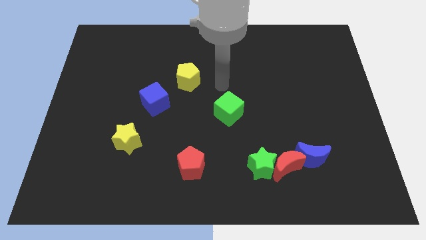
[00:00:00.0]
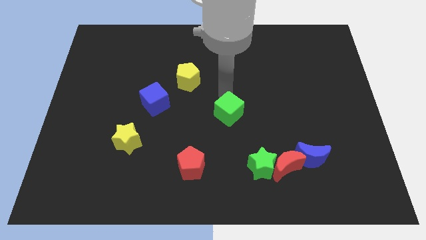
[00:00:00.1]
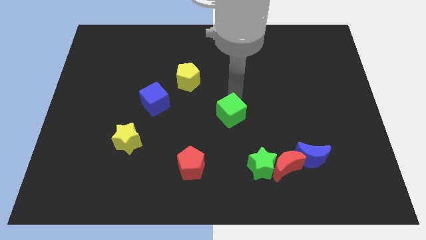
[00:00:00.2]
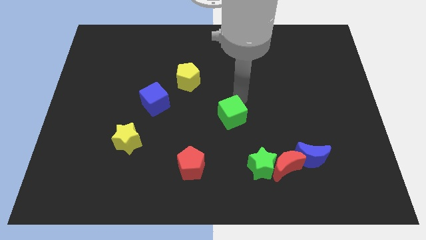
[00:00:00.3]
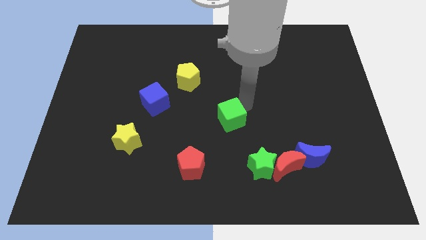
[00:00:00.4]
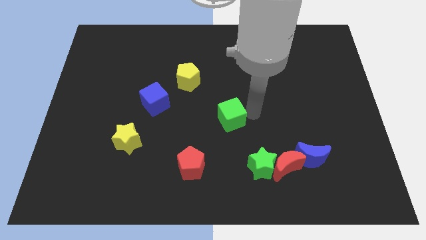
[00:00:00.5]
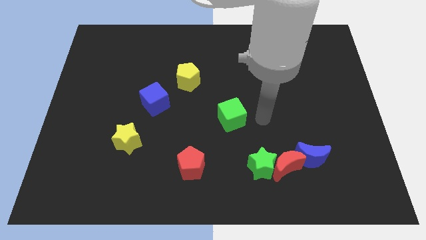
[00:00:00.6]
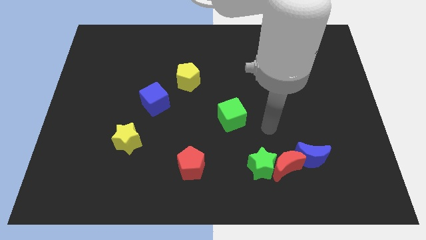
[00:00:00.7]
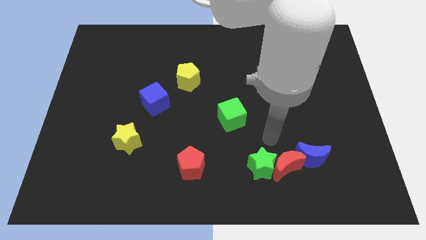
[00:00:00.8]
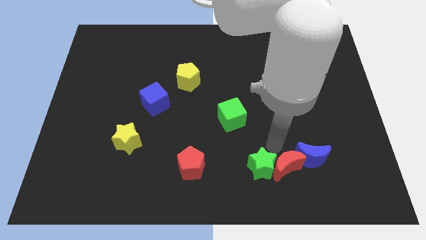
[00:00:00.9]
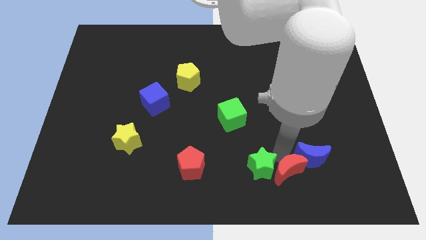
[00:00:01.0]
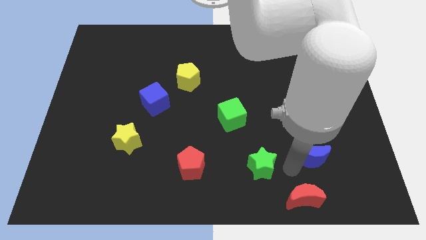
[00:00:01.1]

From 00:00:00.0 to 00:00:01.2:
move the green star away from the red moon

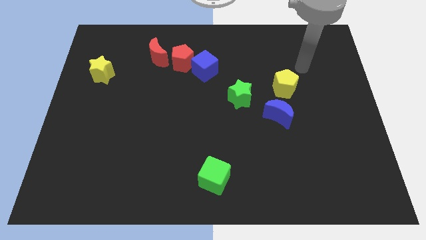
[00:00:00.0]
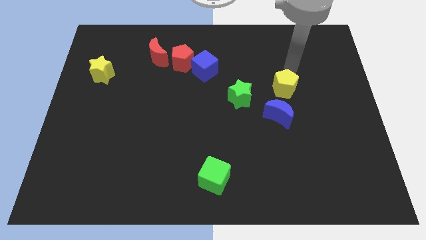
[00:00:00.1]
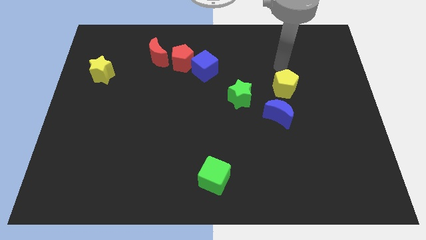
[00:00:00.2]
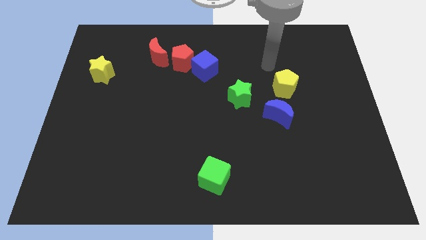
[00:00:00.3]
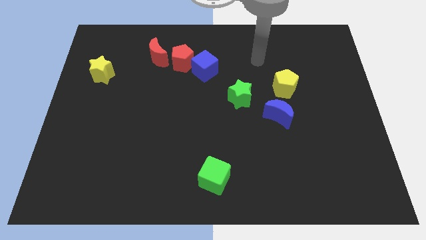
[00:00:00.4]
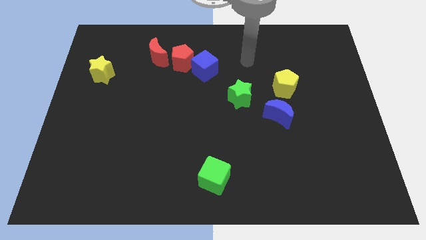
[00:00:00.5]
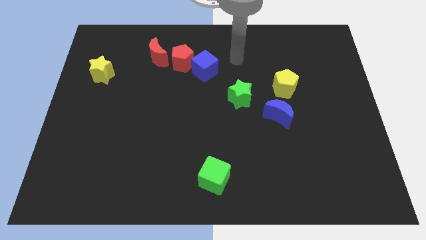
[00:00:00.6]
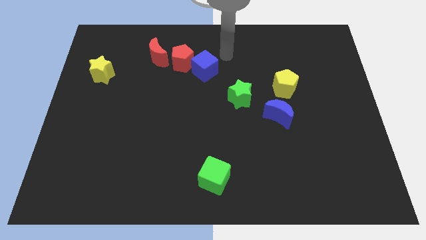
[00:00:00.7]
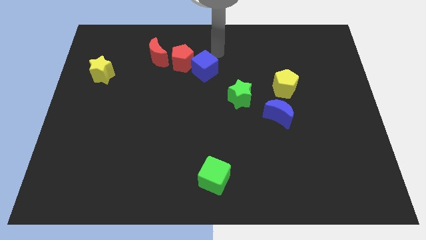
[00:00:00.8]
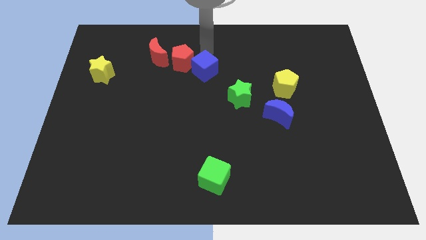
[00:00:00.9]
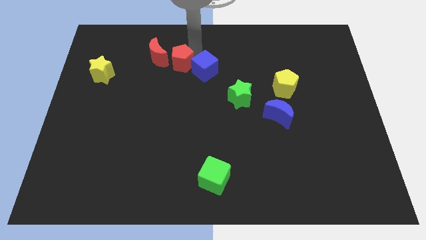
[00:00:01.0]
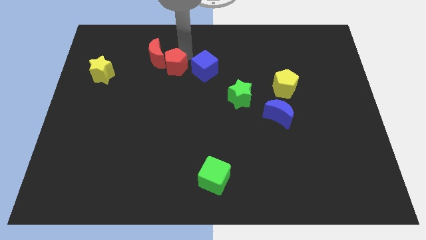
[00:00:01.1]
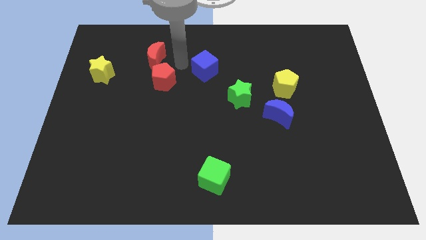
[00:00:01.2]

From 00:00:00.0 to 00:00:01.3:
separate the blue cube from the red pentagon

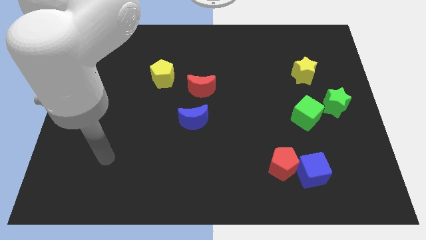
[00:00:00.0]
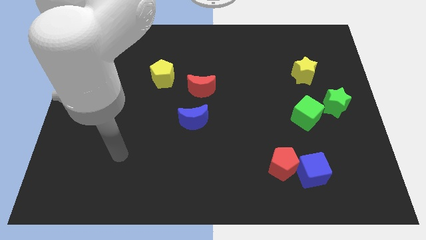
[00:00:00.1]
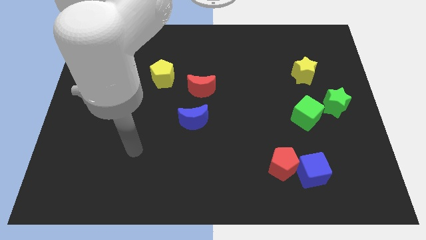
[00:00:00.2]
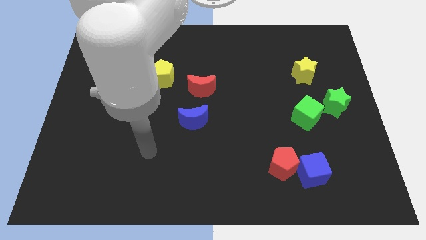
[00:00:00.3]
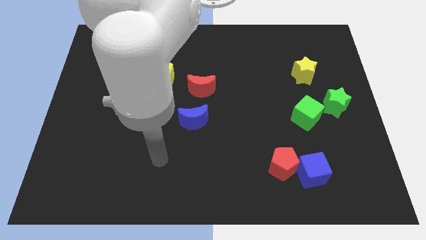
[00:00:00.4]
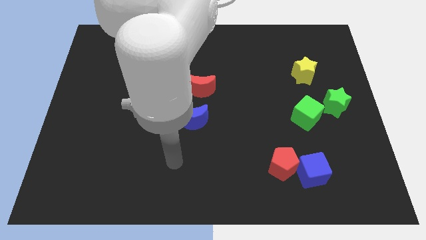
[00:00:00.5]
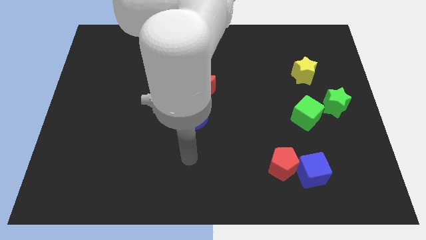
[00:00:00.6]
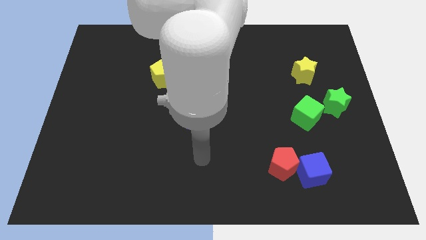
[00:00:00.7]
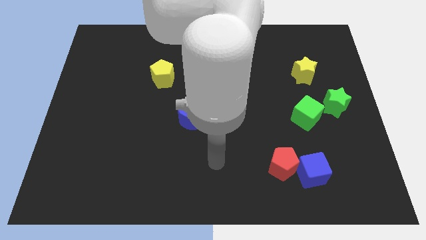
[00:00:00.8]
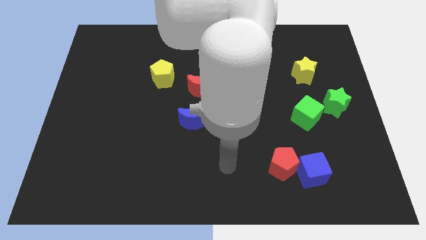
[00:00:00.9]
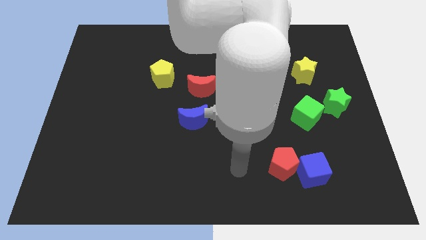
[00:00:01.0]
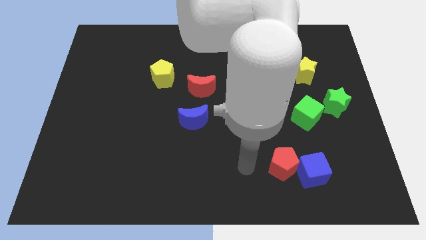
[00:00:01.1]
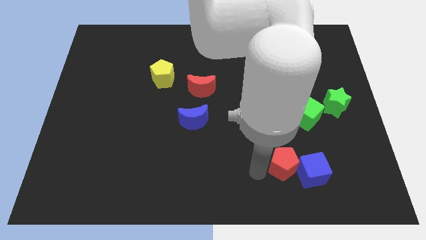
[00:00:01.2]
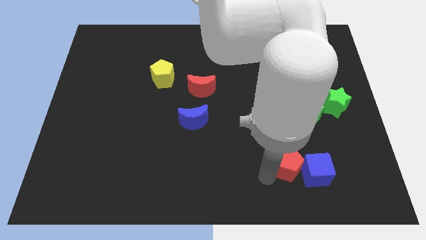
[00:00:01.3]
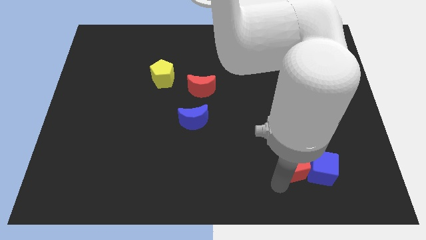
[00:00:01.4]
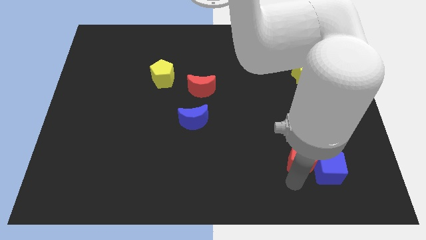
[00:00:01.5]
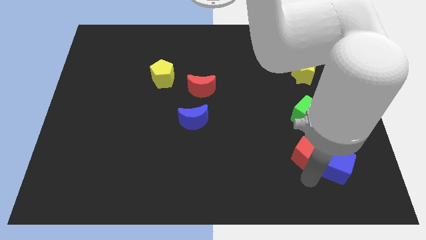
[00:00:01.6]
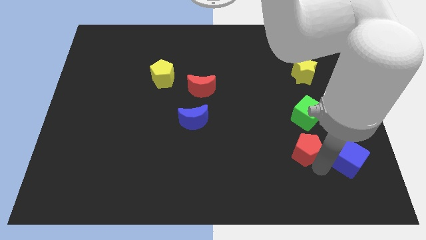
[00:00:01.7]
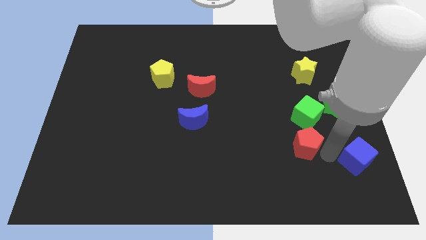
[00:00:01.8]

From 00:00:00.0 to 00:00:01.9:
move the red pentagon away from the blue cube

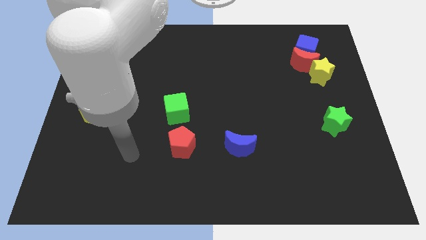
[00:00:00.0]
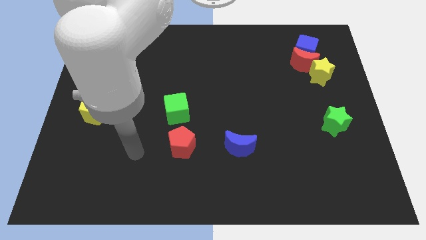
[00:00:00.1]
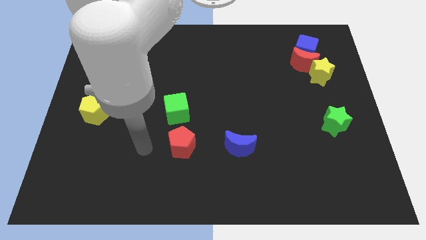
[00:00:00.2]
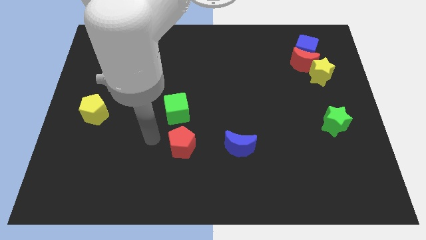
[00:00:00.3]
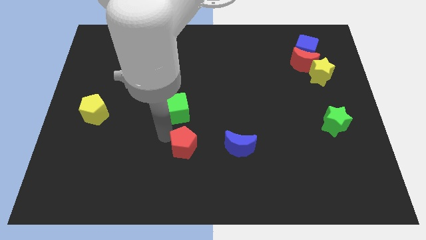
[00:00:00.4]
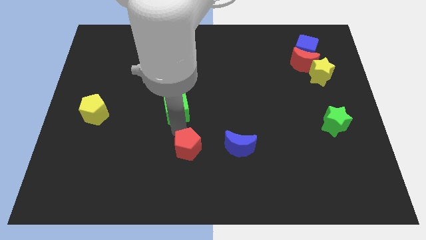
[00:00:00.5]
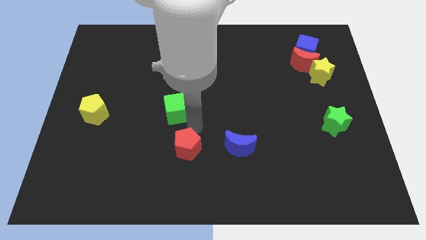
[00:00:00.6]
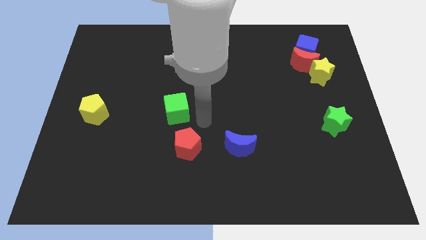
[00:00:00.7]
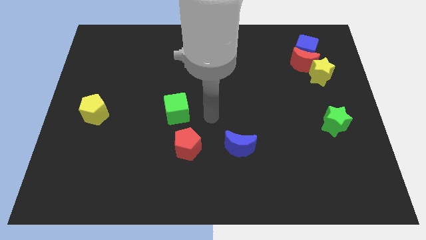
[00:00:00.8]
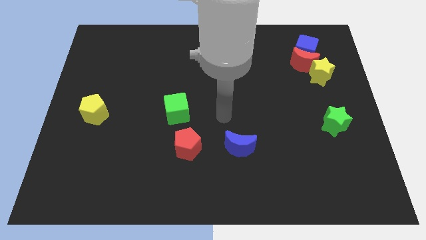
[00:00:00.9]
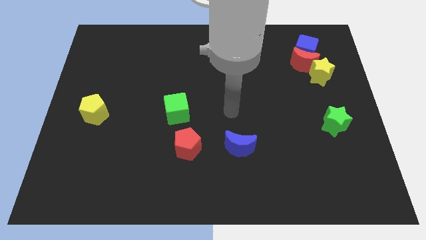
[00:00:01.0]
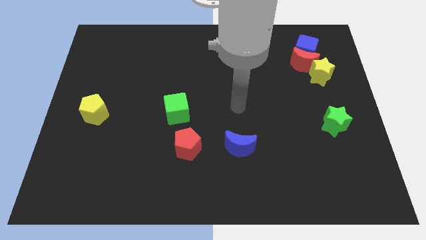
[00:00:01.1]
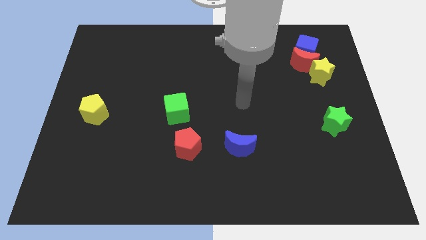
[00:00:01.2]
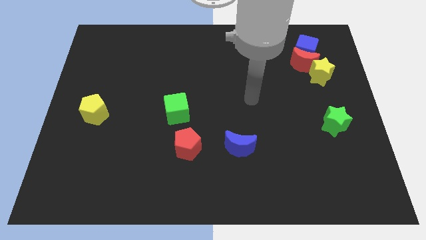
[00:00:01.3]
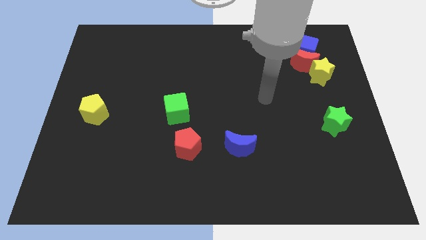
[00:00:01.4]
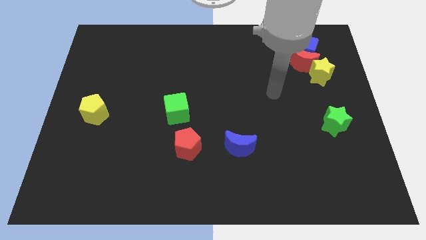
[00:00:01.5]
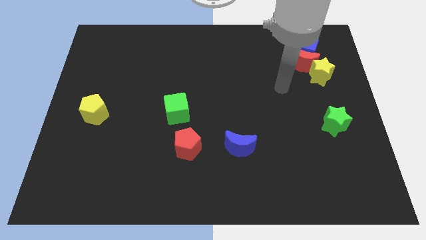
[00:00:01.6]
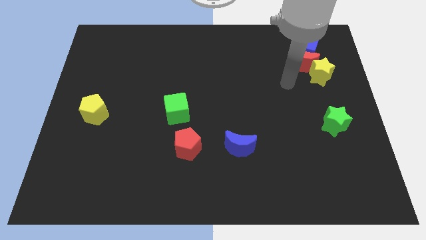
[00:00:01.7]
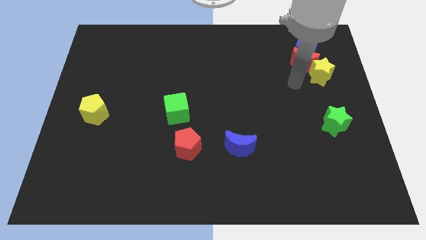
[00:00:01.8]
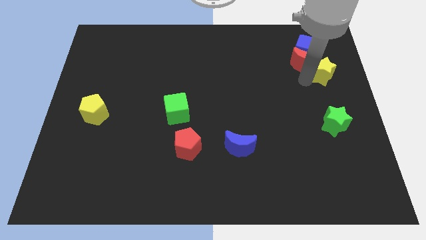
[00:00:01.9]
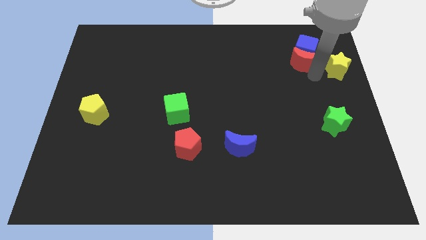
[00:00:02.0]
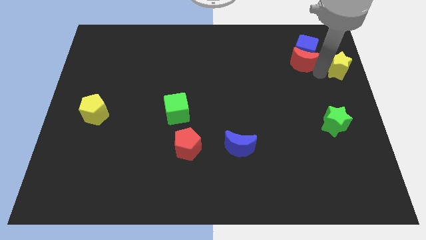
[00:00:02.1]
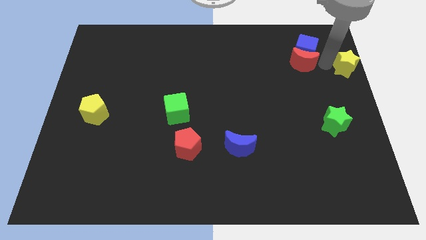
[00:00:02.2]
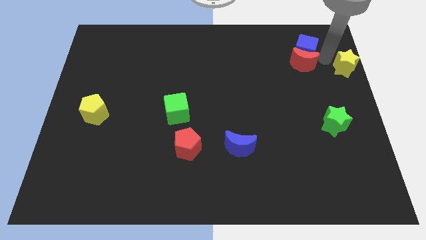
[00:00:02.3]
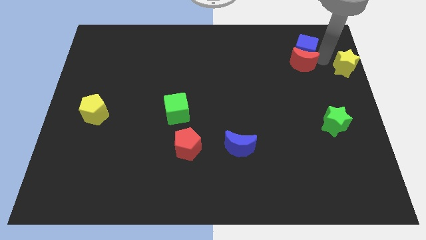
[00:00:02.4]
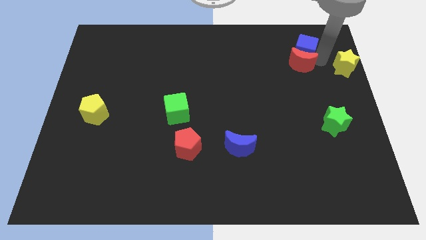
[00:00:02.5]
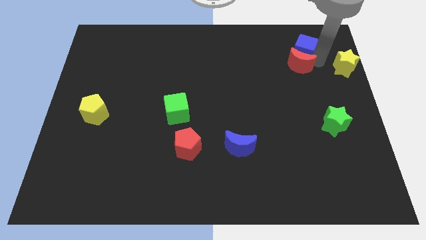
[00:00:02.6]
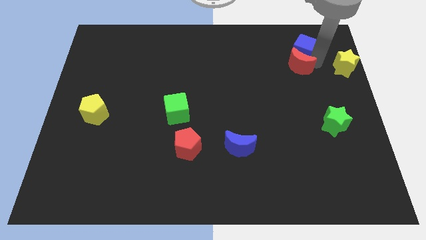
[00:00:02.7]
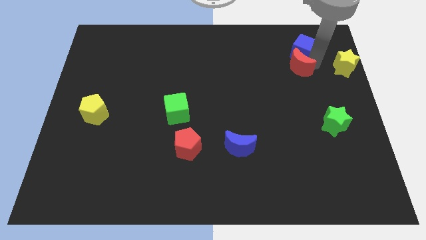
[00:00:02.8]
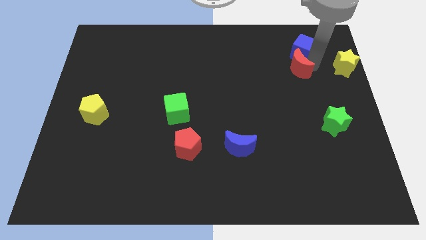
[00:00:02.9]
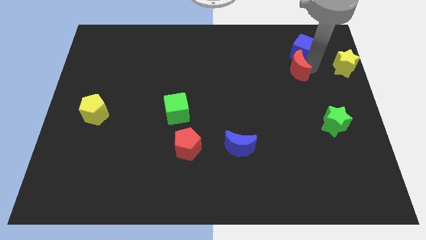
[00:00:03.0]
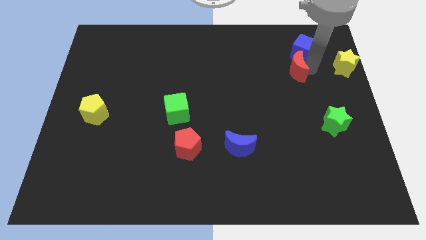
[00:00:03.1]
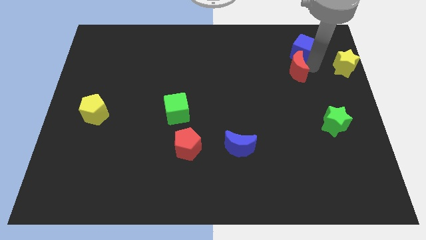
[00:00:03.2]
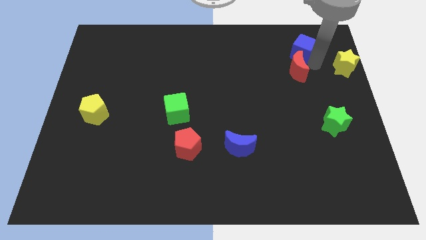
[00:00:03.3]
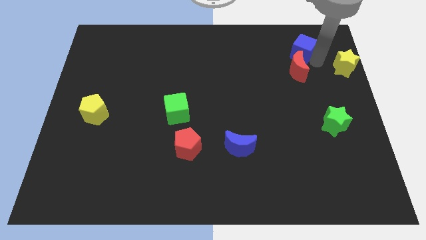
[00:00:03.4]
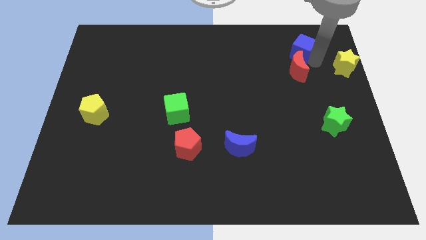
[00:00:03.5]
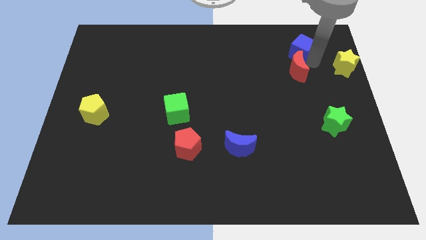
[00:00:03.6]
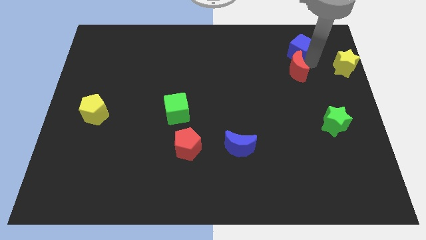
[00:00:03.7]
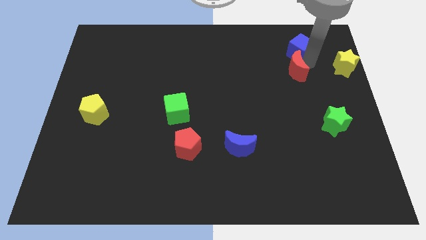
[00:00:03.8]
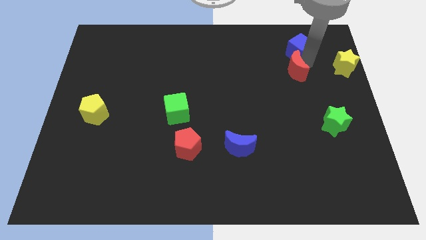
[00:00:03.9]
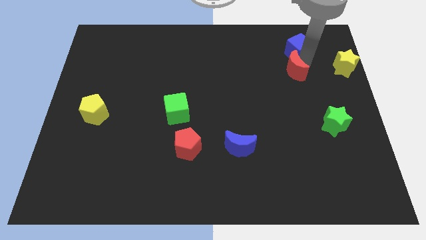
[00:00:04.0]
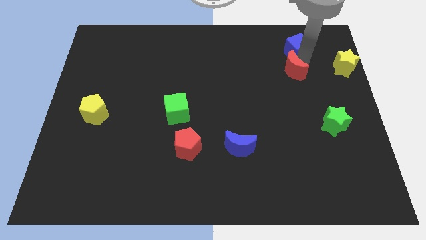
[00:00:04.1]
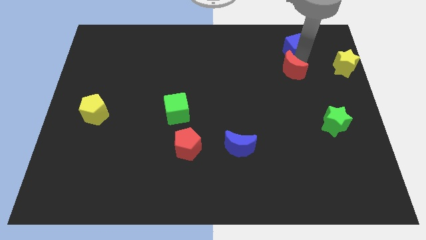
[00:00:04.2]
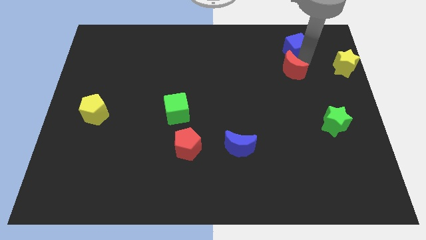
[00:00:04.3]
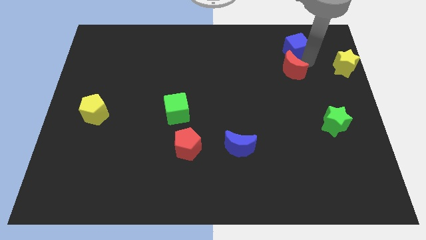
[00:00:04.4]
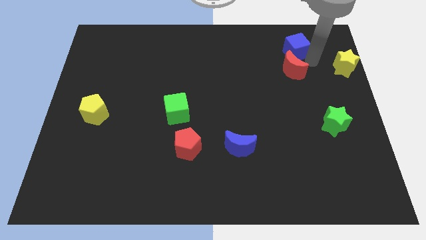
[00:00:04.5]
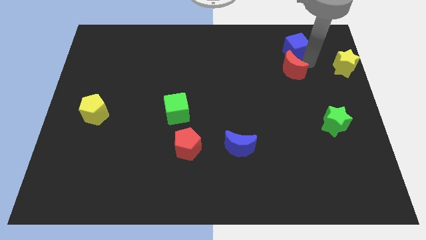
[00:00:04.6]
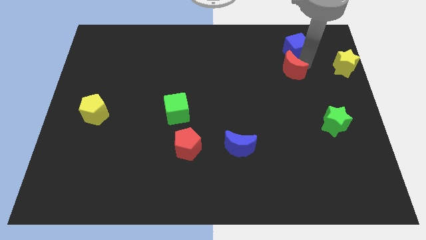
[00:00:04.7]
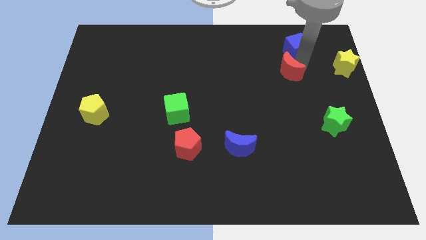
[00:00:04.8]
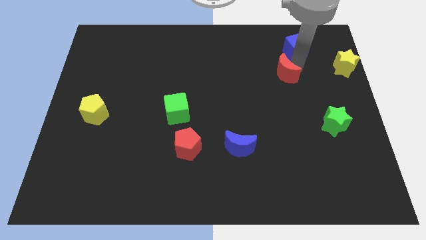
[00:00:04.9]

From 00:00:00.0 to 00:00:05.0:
move the red moon away from the blue cube and yellow star
